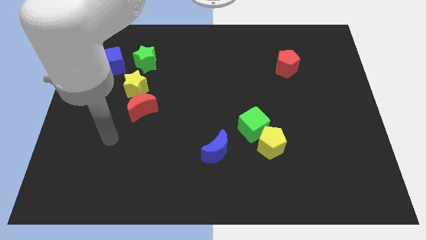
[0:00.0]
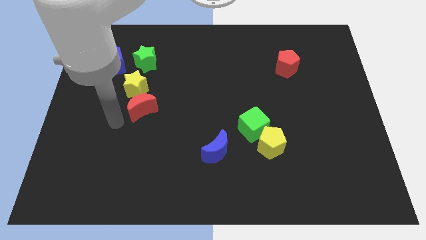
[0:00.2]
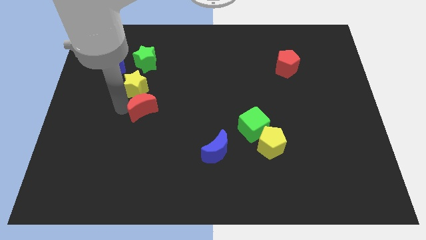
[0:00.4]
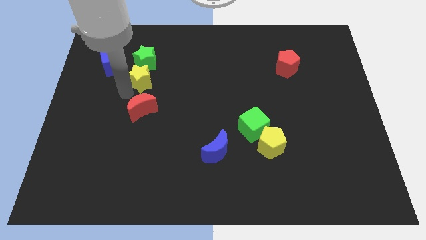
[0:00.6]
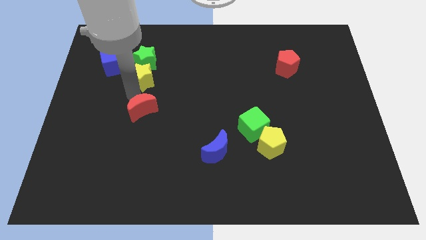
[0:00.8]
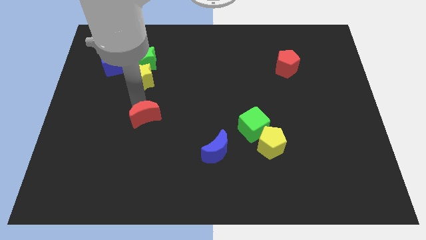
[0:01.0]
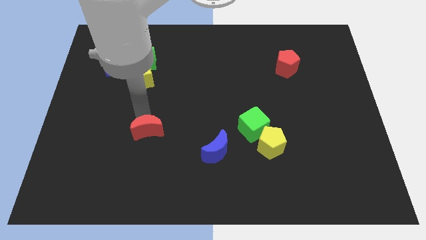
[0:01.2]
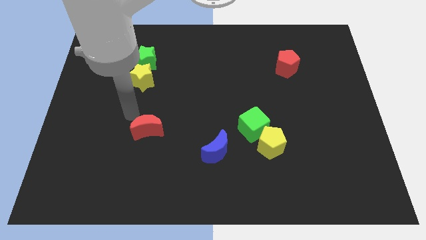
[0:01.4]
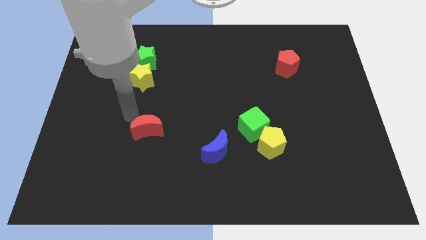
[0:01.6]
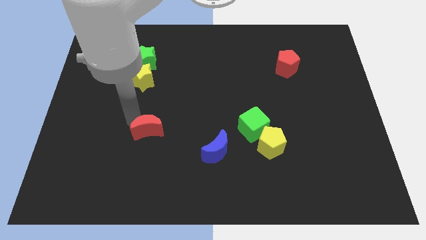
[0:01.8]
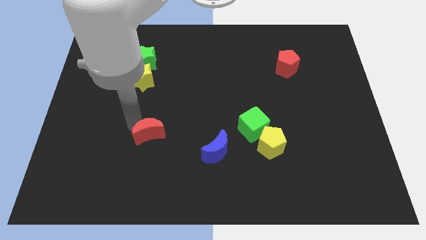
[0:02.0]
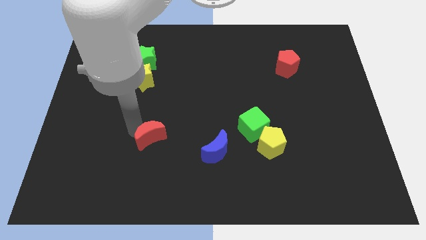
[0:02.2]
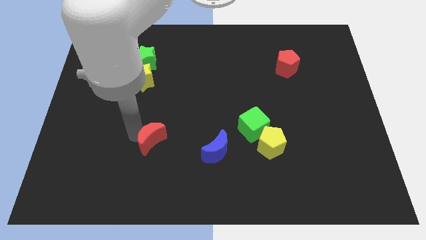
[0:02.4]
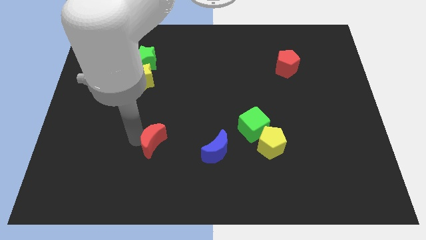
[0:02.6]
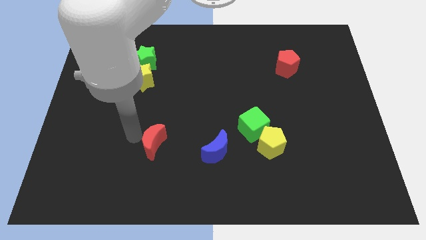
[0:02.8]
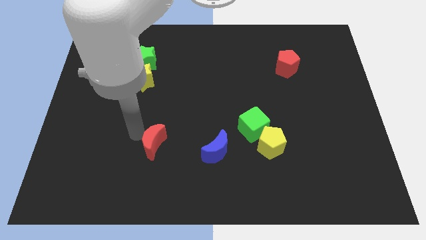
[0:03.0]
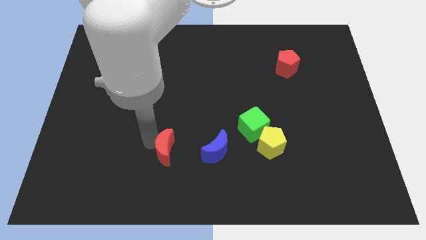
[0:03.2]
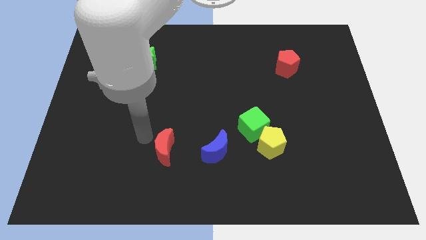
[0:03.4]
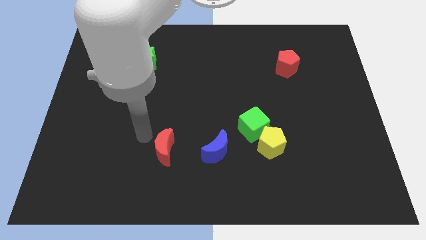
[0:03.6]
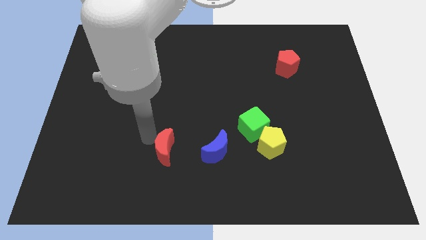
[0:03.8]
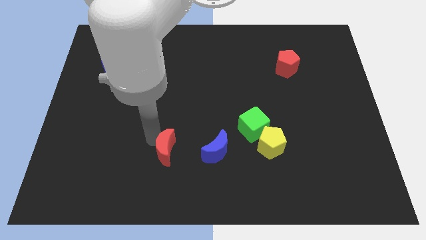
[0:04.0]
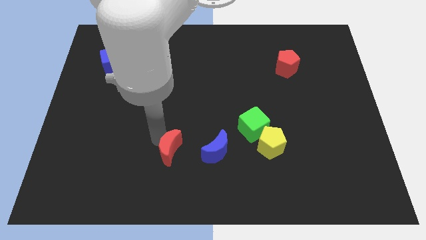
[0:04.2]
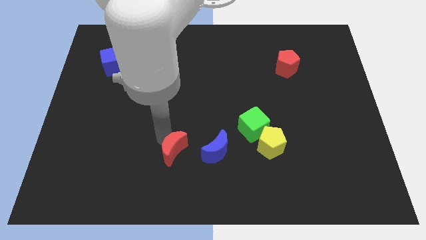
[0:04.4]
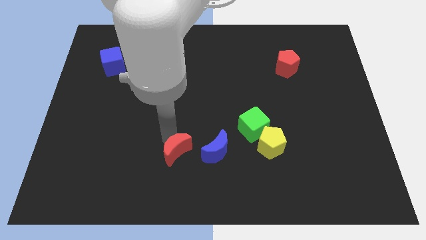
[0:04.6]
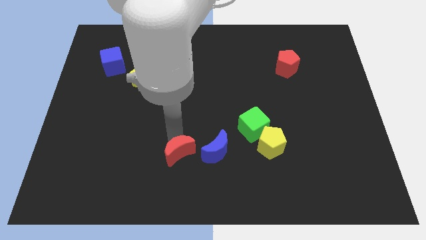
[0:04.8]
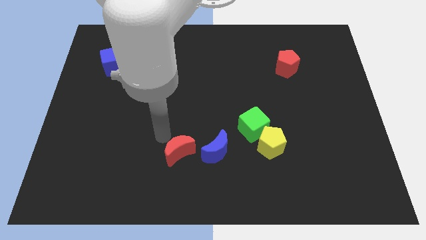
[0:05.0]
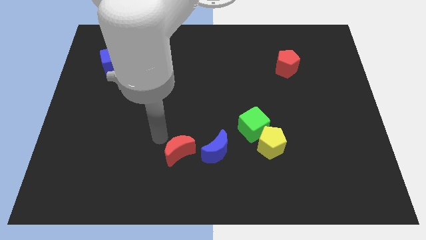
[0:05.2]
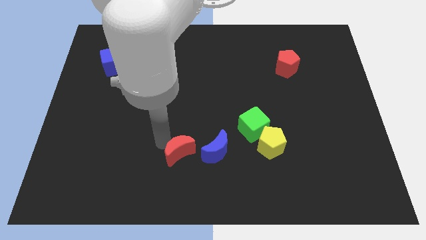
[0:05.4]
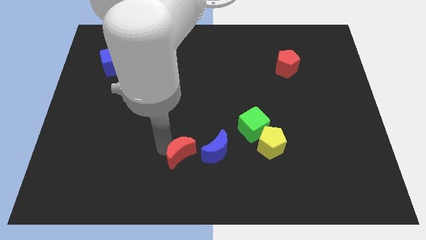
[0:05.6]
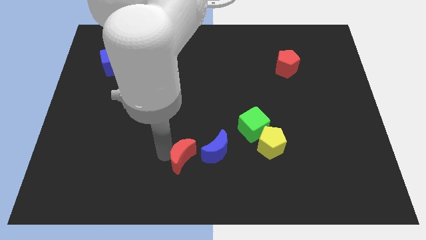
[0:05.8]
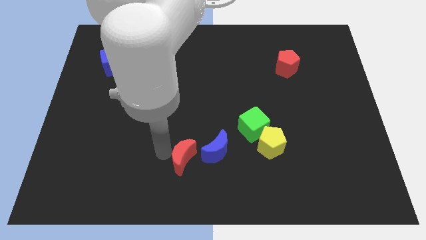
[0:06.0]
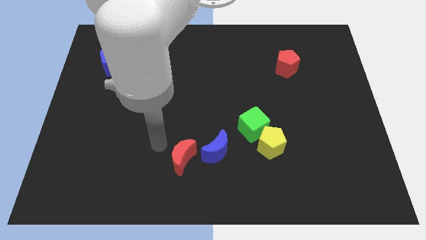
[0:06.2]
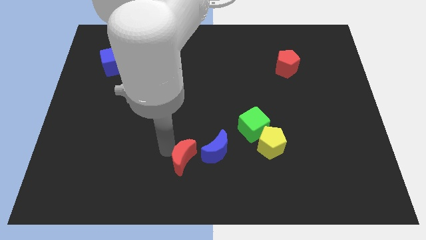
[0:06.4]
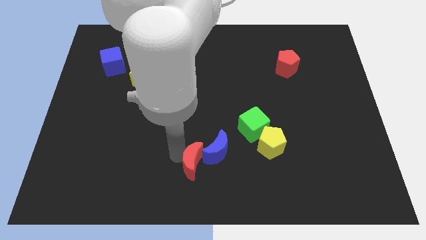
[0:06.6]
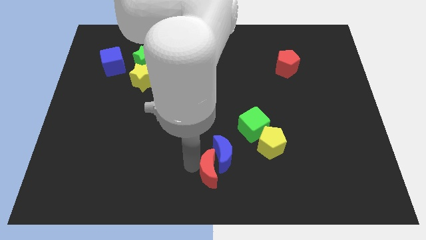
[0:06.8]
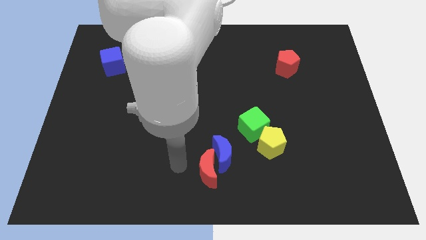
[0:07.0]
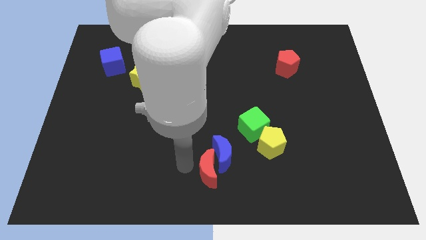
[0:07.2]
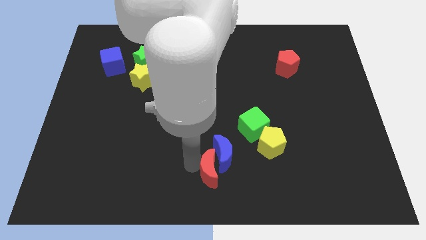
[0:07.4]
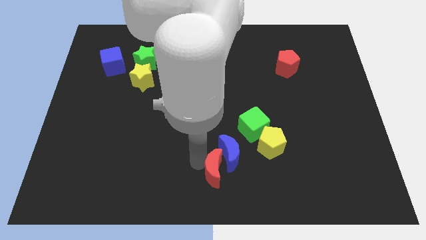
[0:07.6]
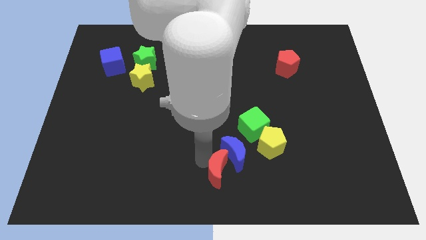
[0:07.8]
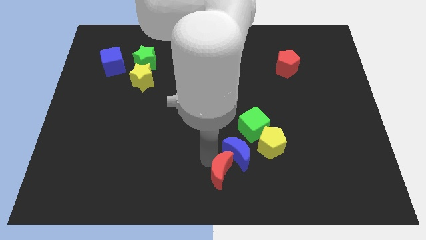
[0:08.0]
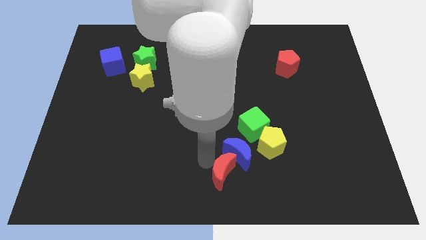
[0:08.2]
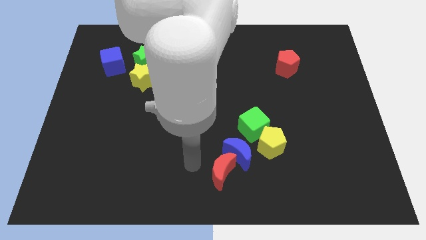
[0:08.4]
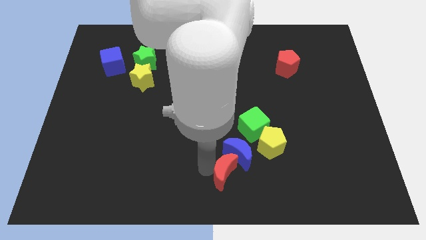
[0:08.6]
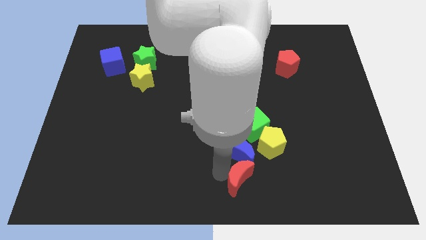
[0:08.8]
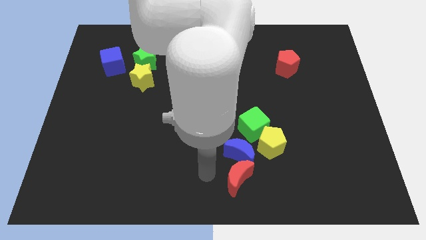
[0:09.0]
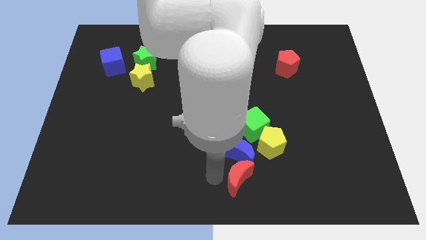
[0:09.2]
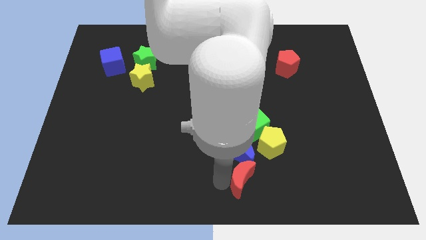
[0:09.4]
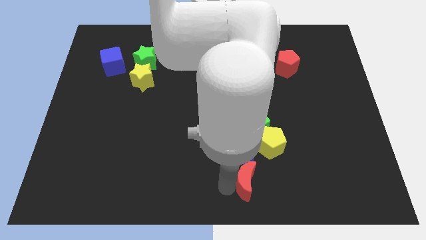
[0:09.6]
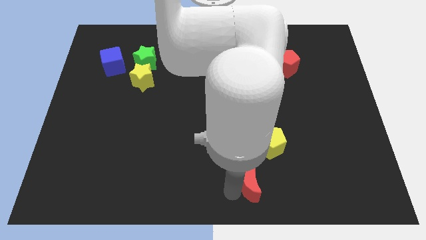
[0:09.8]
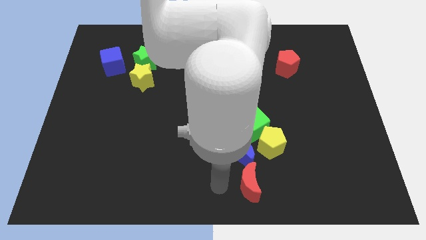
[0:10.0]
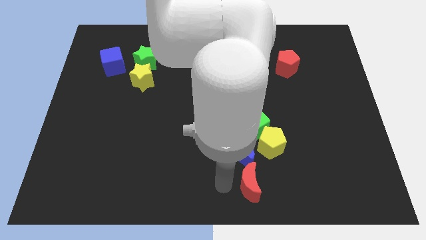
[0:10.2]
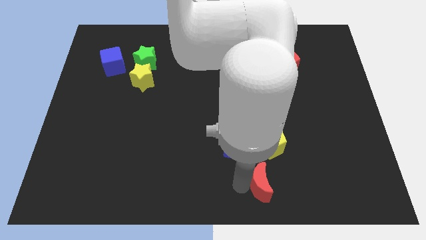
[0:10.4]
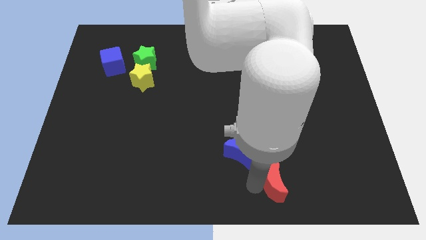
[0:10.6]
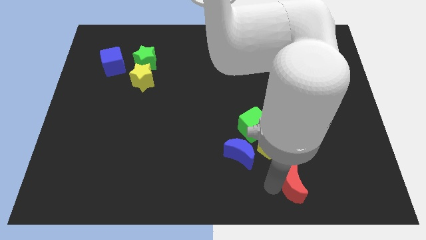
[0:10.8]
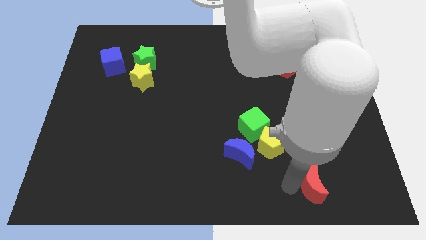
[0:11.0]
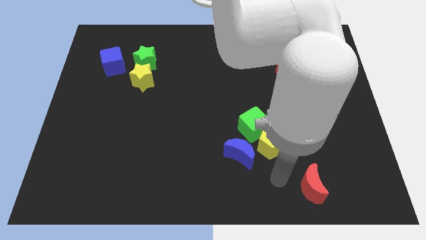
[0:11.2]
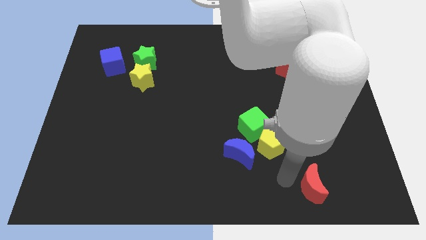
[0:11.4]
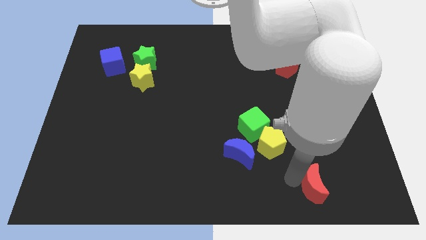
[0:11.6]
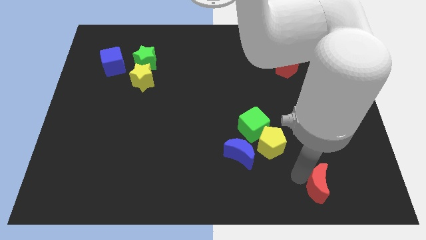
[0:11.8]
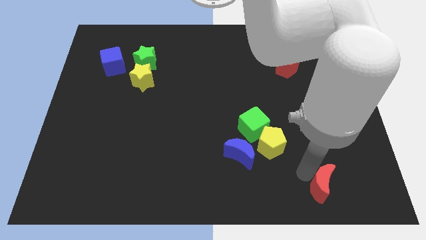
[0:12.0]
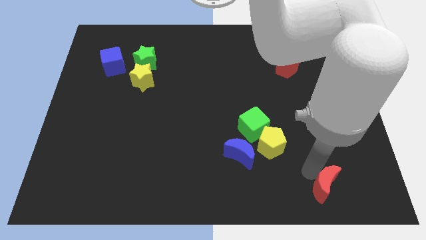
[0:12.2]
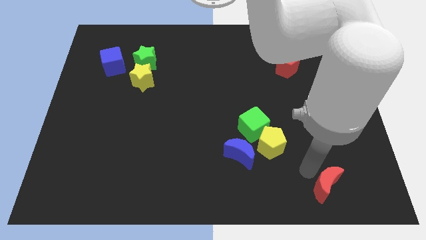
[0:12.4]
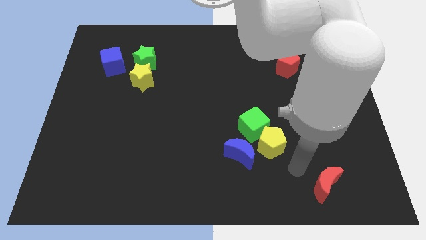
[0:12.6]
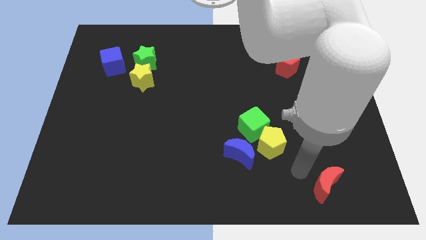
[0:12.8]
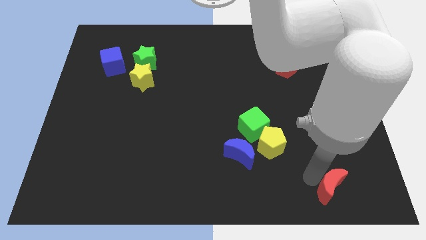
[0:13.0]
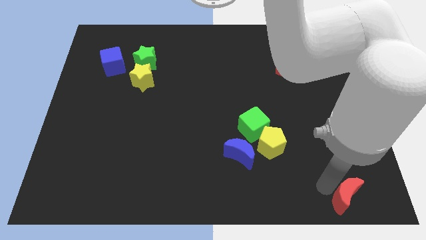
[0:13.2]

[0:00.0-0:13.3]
move the red moon to the bottom right corner
